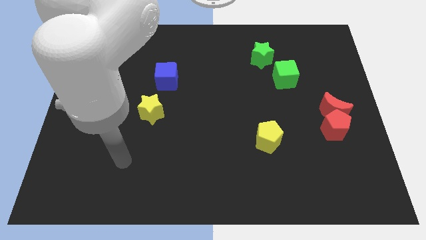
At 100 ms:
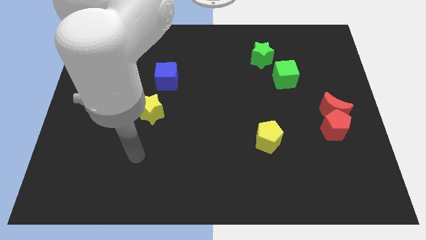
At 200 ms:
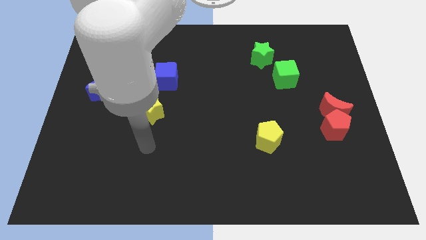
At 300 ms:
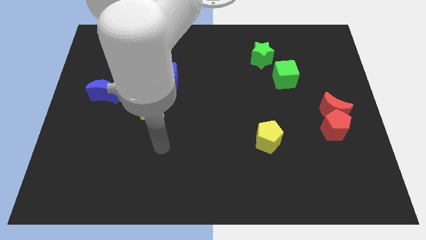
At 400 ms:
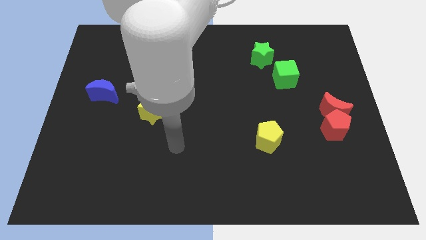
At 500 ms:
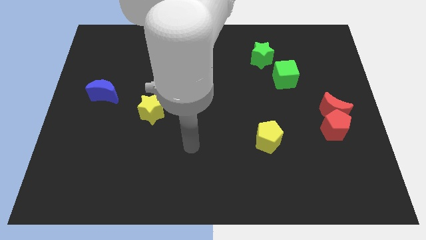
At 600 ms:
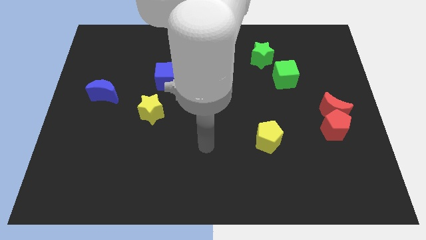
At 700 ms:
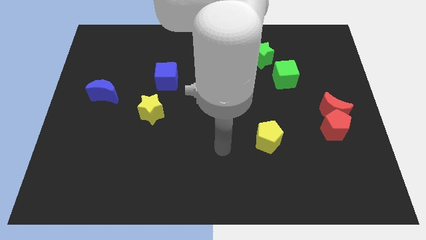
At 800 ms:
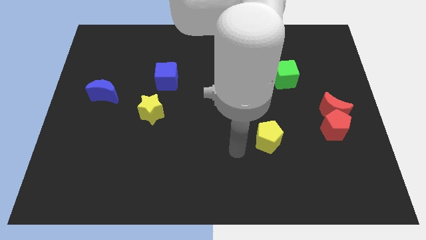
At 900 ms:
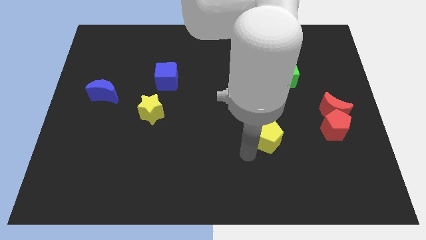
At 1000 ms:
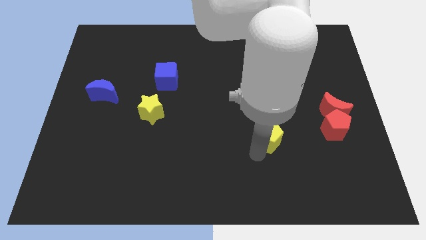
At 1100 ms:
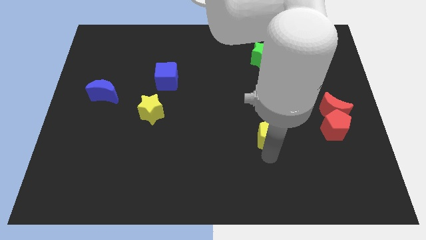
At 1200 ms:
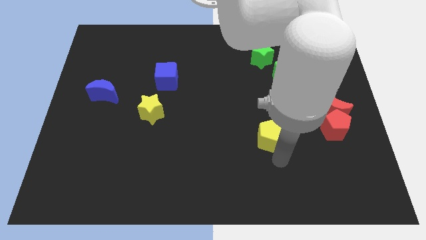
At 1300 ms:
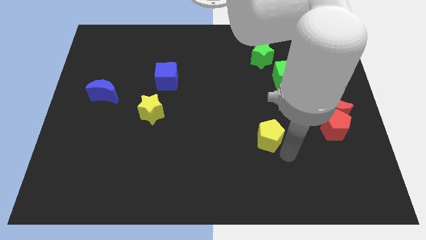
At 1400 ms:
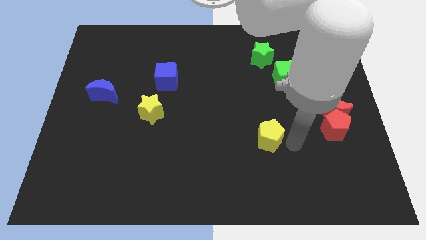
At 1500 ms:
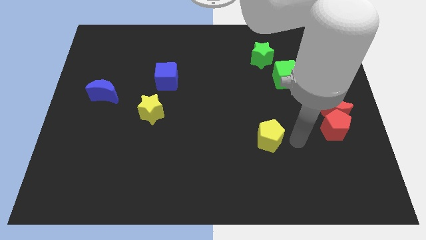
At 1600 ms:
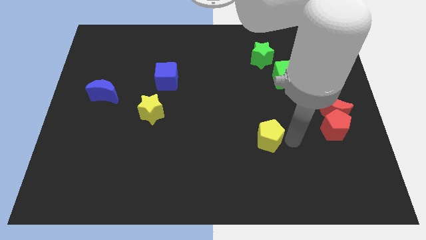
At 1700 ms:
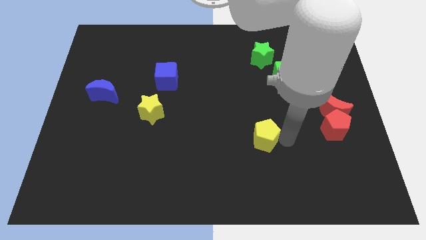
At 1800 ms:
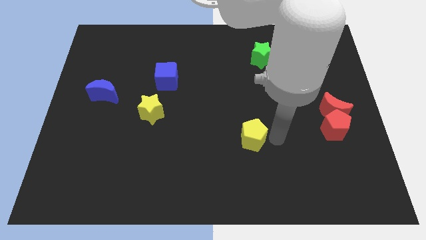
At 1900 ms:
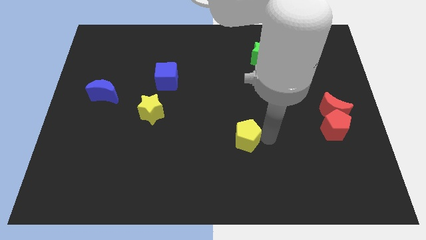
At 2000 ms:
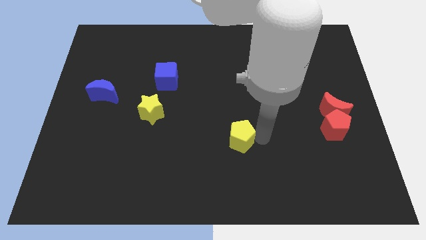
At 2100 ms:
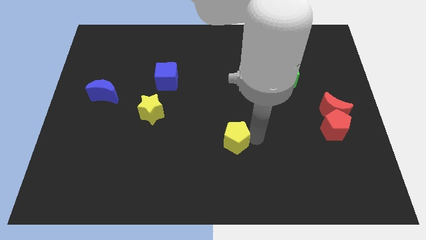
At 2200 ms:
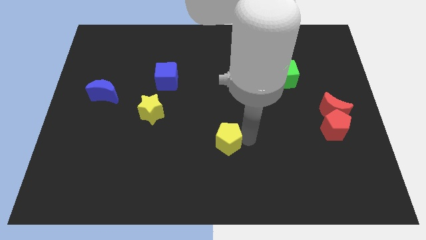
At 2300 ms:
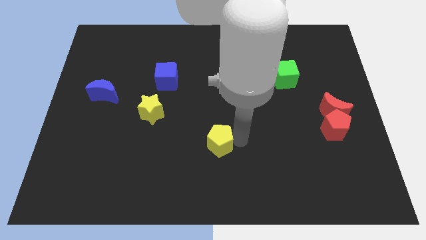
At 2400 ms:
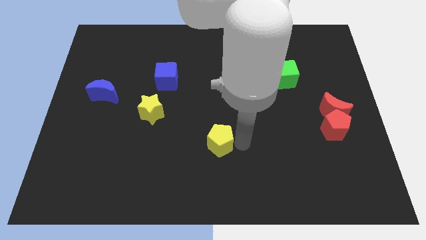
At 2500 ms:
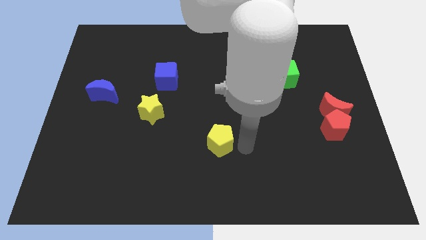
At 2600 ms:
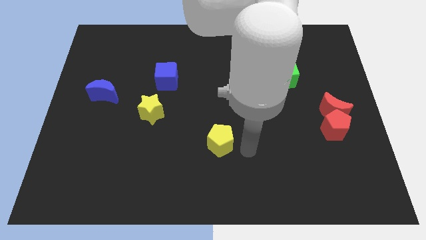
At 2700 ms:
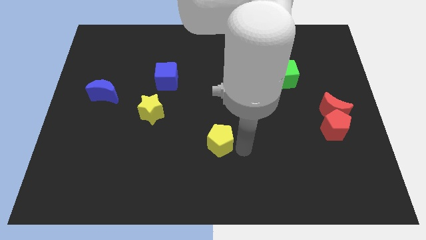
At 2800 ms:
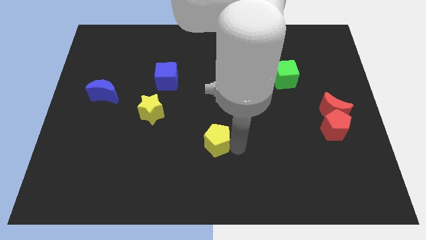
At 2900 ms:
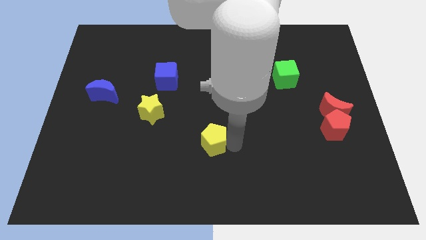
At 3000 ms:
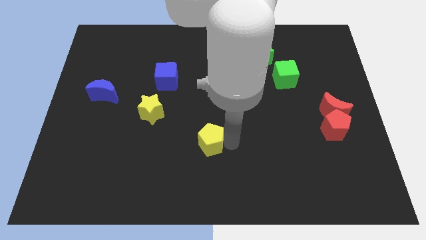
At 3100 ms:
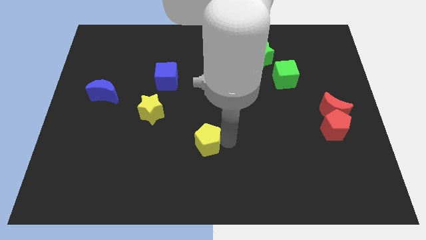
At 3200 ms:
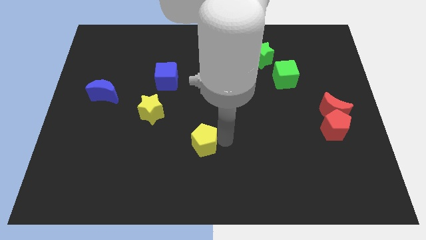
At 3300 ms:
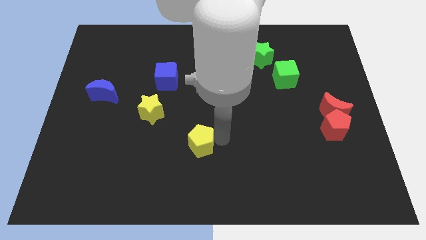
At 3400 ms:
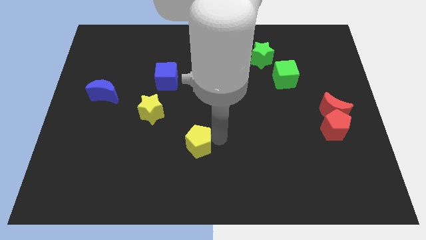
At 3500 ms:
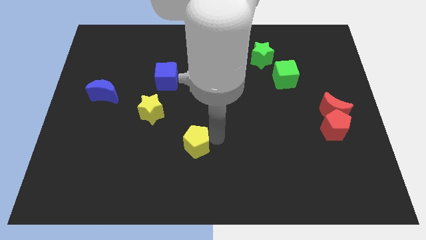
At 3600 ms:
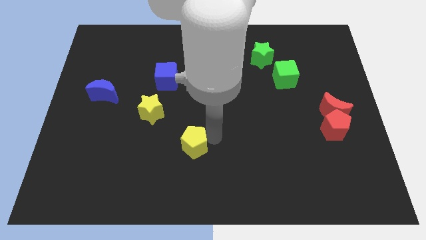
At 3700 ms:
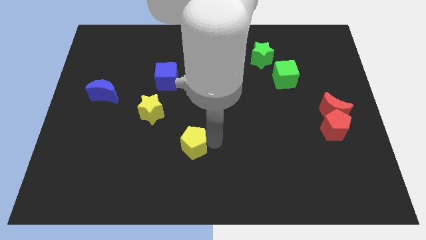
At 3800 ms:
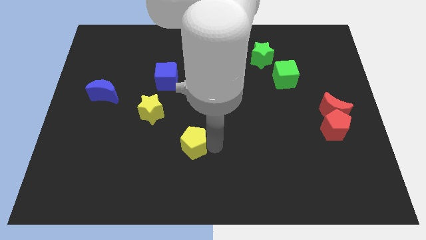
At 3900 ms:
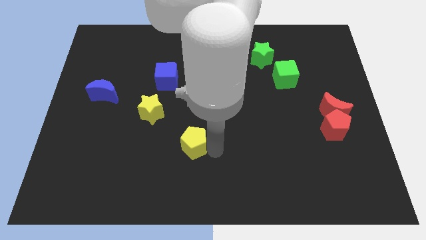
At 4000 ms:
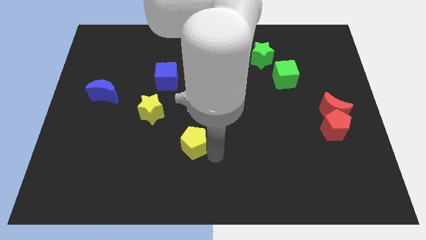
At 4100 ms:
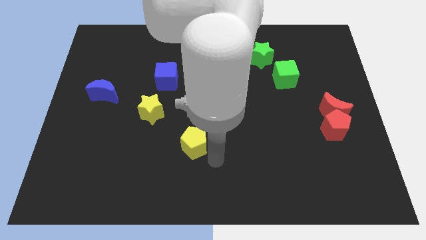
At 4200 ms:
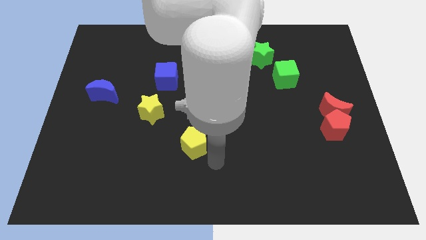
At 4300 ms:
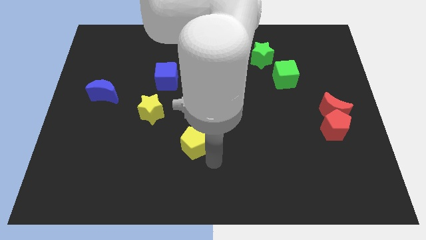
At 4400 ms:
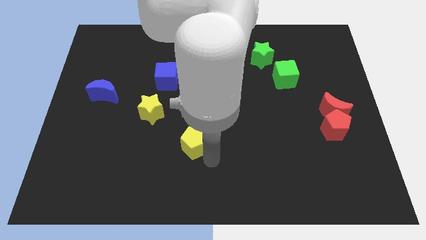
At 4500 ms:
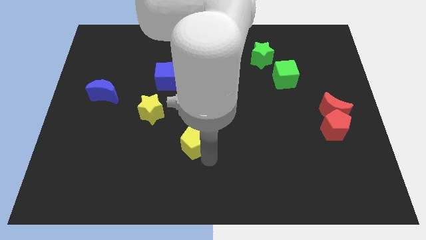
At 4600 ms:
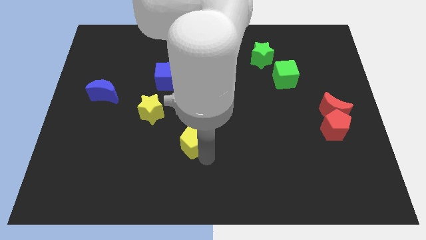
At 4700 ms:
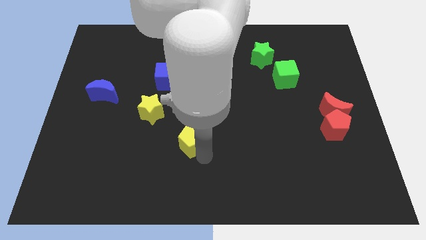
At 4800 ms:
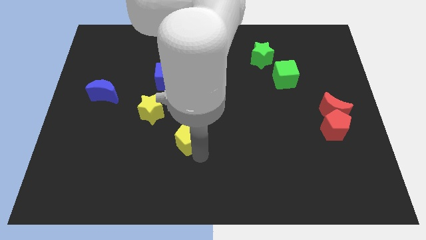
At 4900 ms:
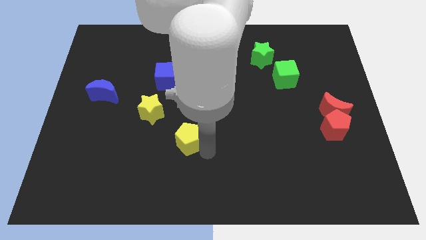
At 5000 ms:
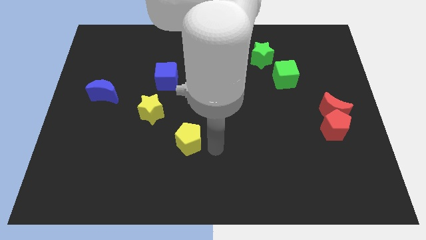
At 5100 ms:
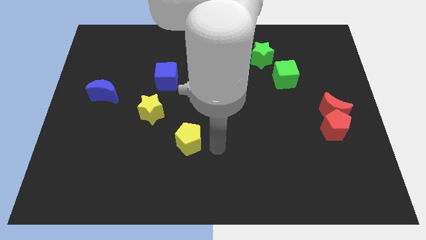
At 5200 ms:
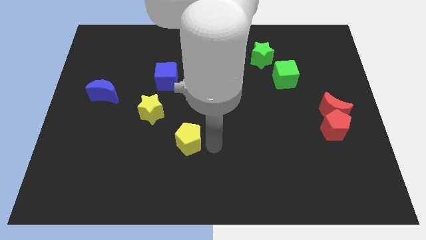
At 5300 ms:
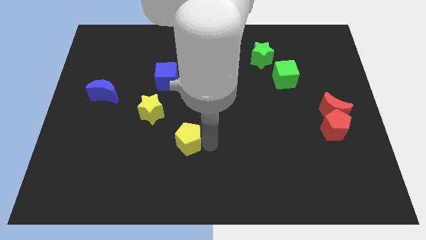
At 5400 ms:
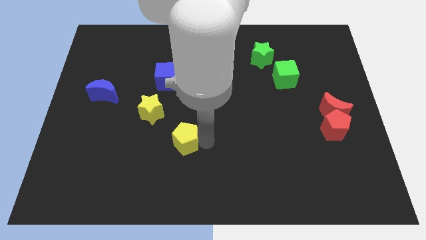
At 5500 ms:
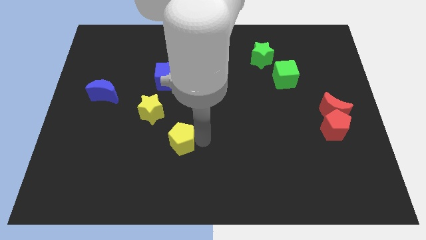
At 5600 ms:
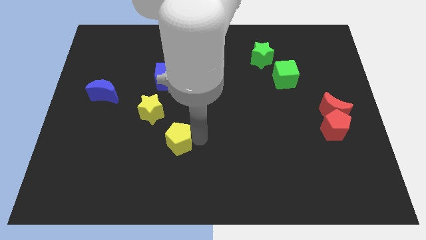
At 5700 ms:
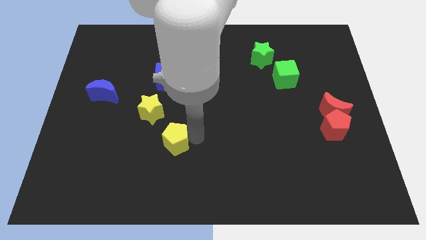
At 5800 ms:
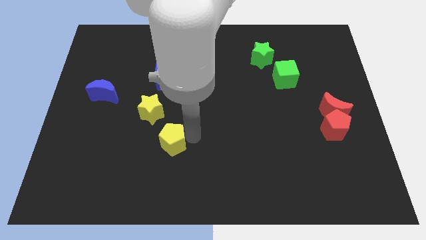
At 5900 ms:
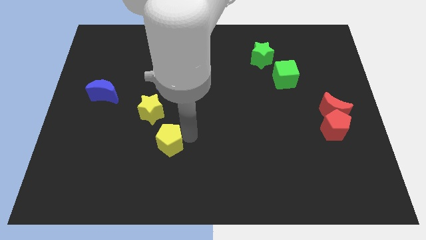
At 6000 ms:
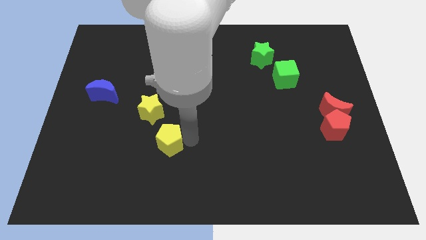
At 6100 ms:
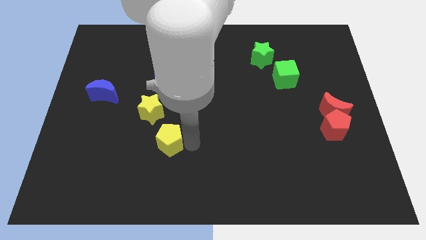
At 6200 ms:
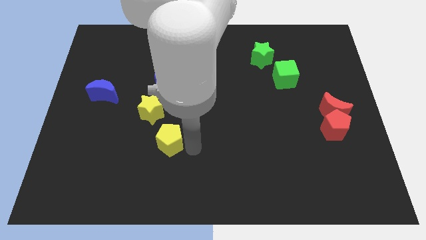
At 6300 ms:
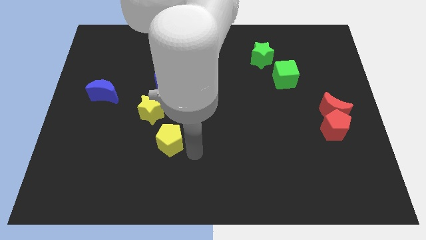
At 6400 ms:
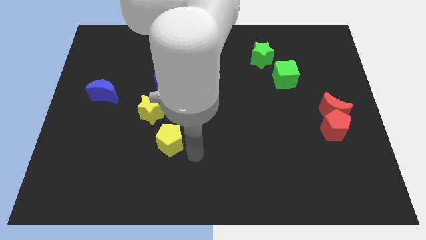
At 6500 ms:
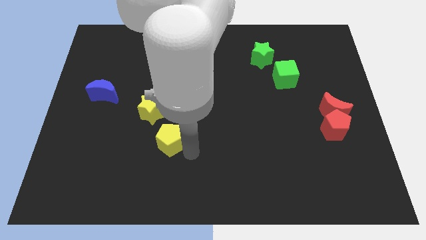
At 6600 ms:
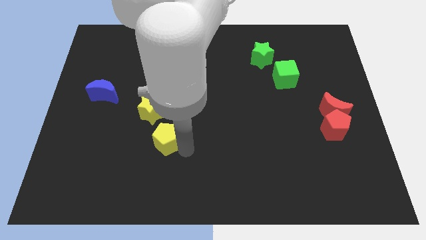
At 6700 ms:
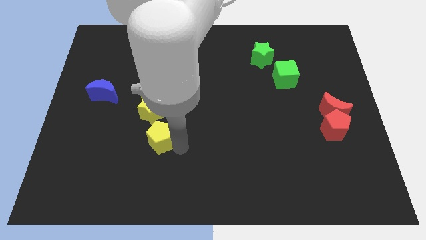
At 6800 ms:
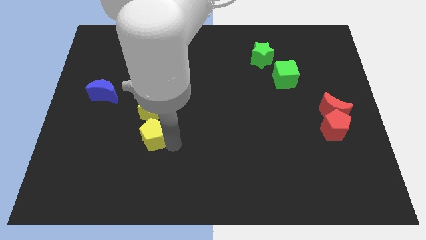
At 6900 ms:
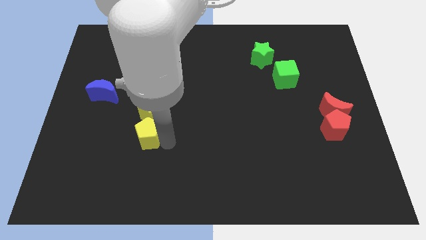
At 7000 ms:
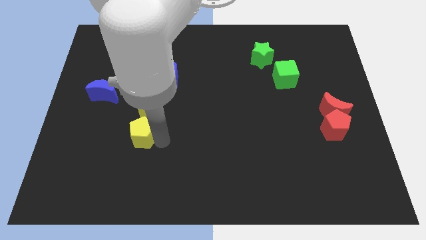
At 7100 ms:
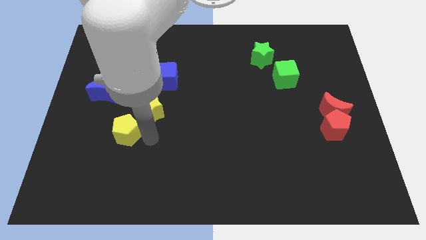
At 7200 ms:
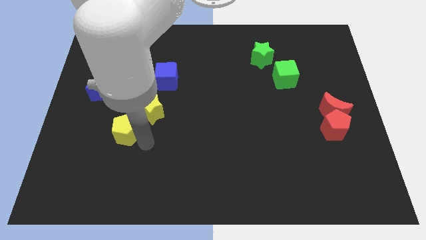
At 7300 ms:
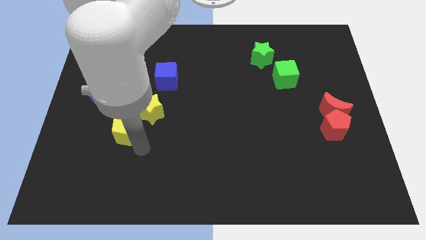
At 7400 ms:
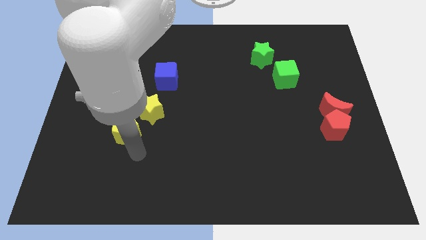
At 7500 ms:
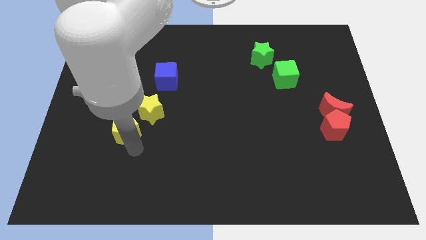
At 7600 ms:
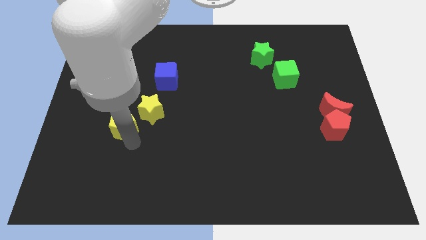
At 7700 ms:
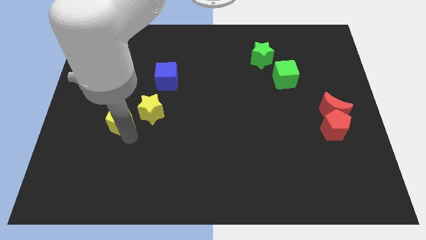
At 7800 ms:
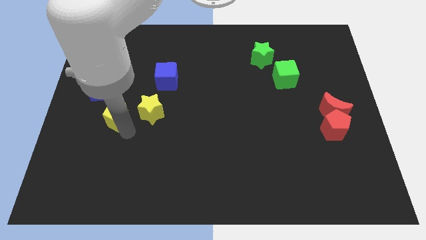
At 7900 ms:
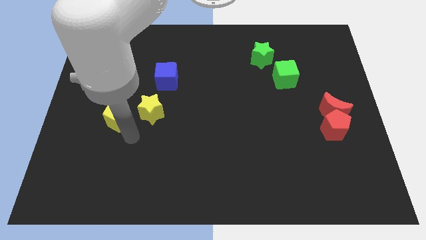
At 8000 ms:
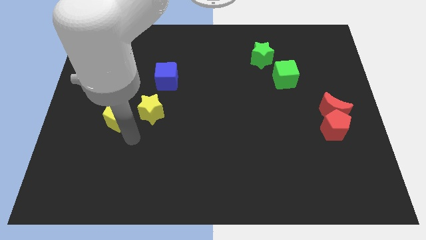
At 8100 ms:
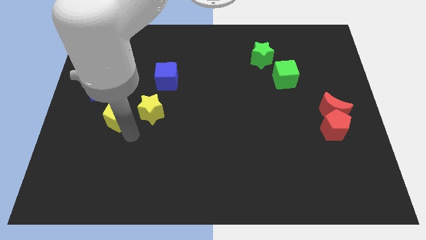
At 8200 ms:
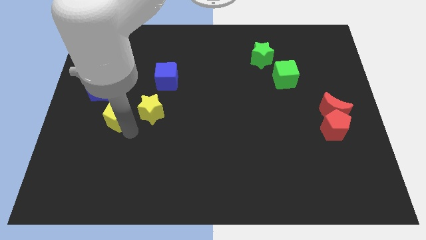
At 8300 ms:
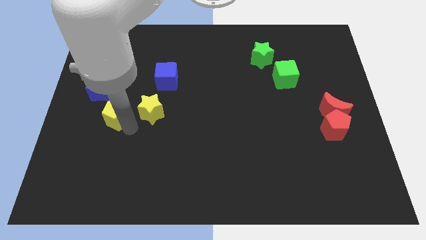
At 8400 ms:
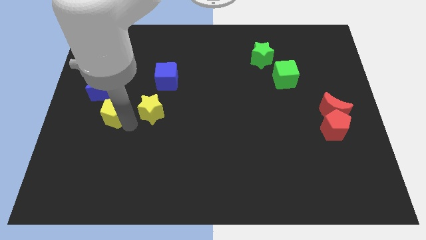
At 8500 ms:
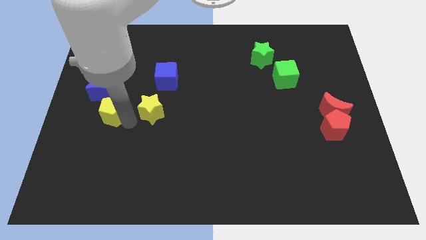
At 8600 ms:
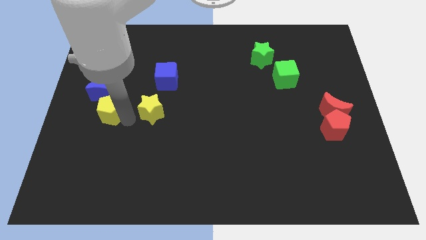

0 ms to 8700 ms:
put the yellow pentagon next to the blue moon
